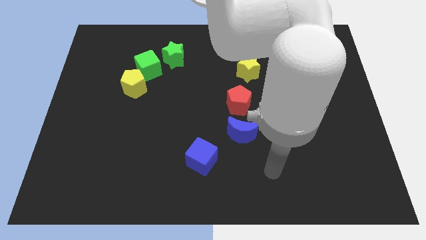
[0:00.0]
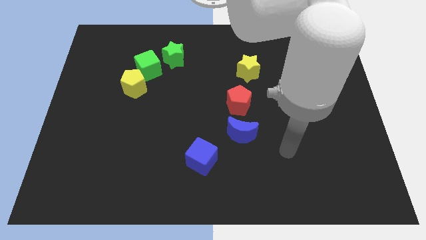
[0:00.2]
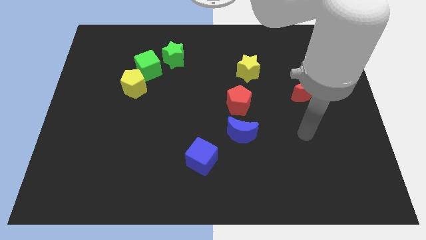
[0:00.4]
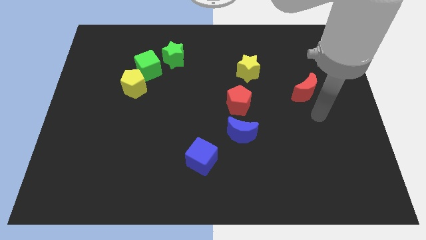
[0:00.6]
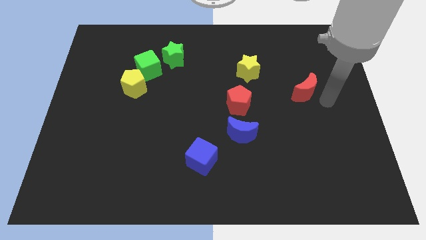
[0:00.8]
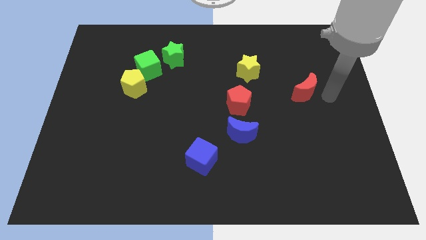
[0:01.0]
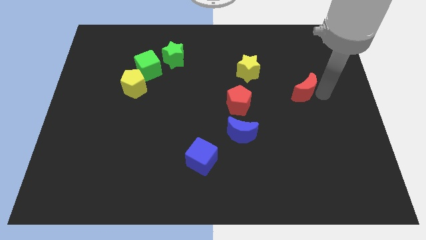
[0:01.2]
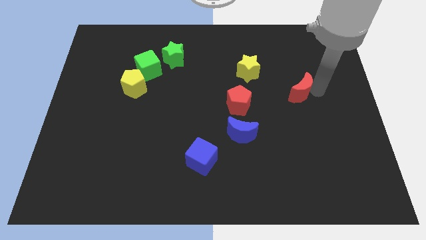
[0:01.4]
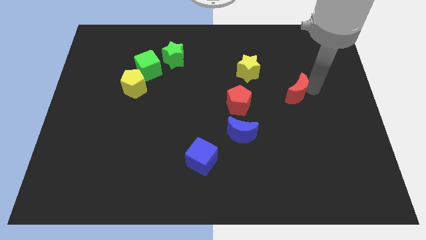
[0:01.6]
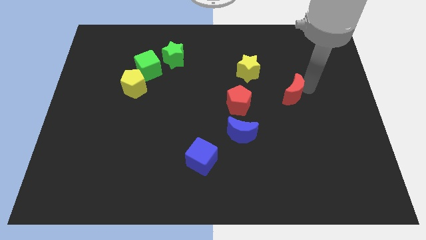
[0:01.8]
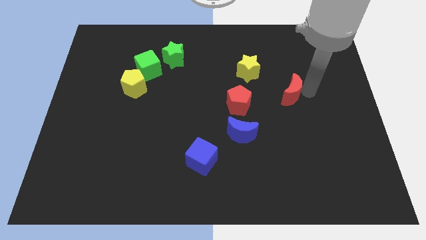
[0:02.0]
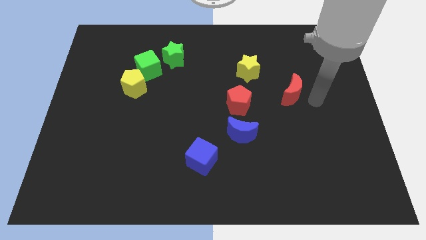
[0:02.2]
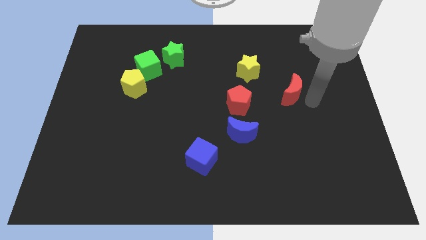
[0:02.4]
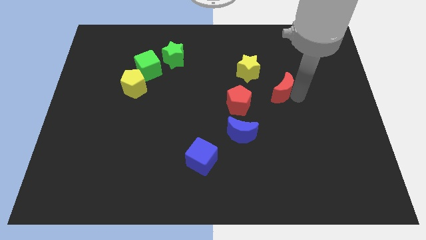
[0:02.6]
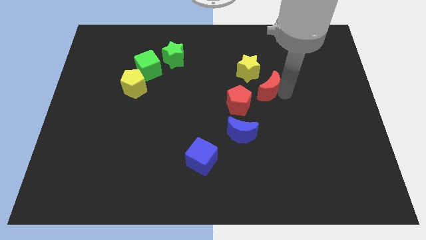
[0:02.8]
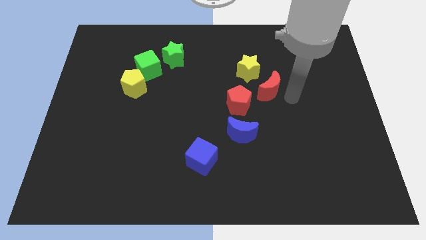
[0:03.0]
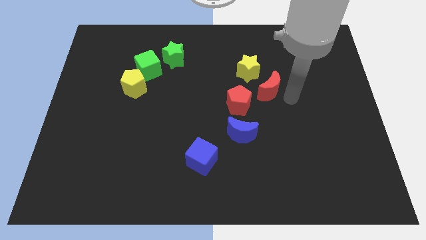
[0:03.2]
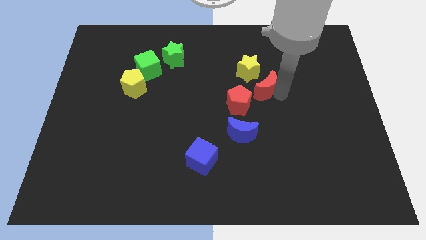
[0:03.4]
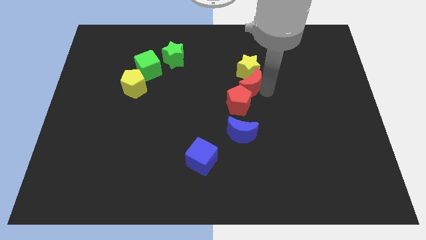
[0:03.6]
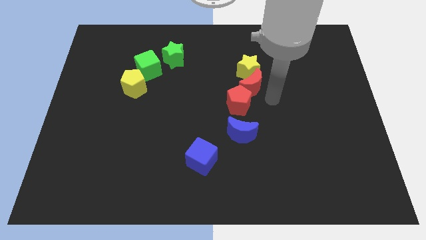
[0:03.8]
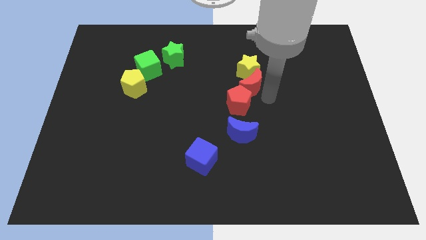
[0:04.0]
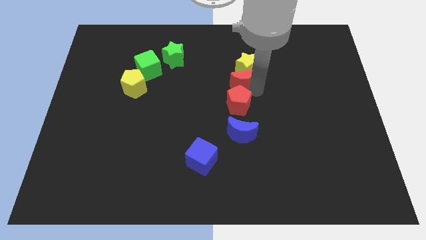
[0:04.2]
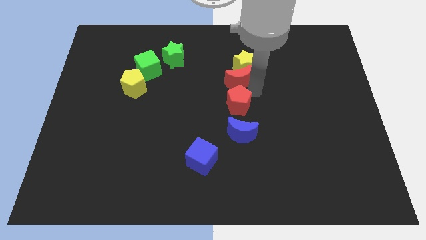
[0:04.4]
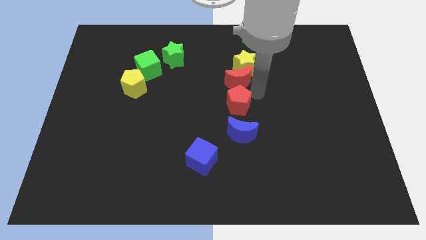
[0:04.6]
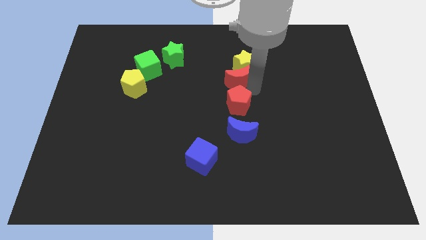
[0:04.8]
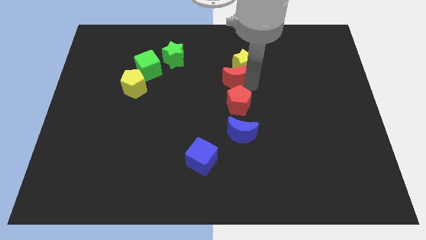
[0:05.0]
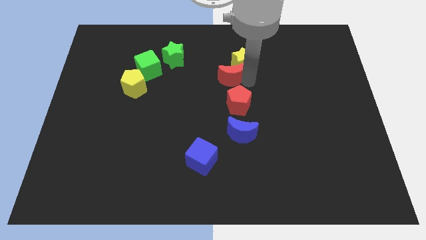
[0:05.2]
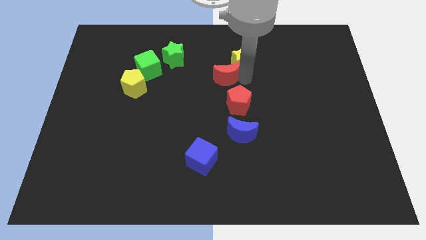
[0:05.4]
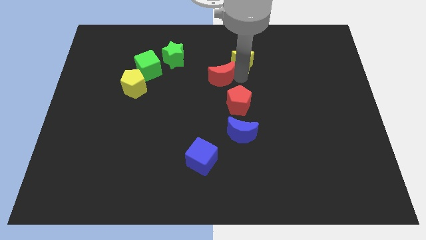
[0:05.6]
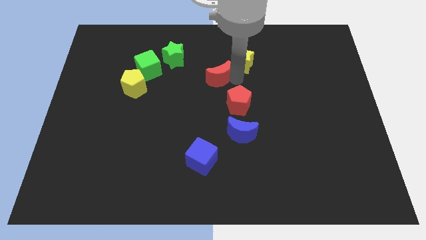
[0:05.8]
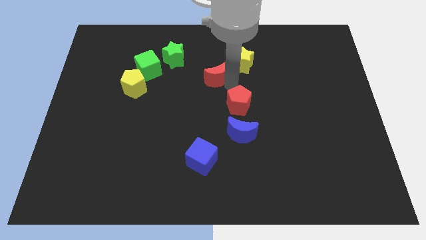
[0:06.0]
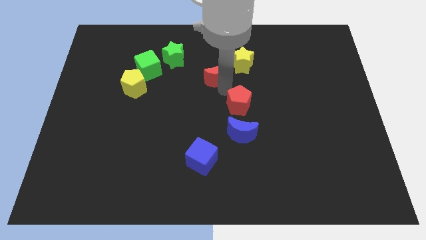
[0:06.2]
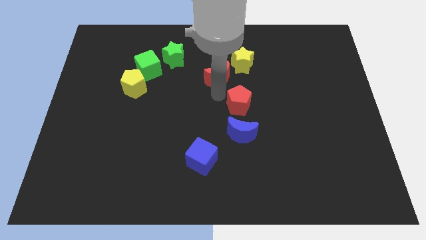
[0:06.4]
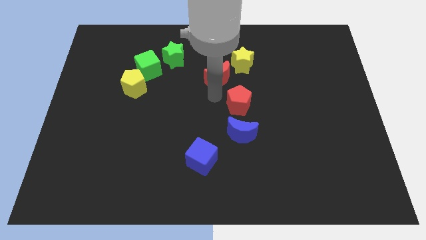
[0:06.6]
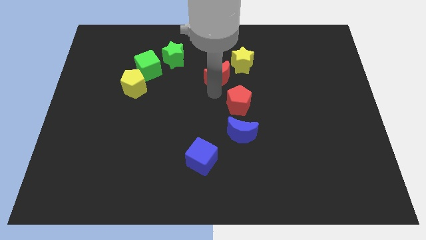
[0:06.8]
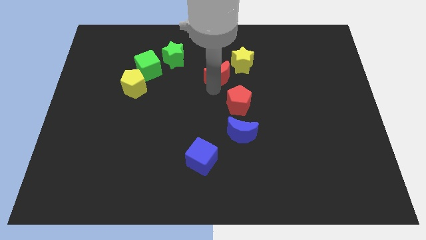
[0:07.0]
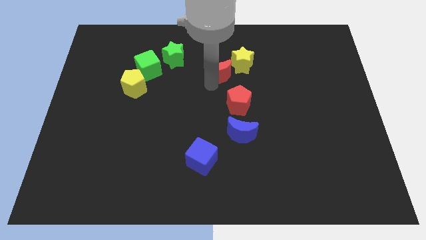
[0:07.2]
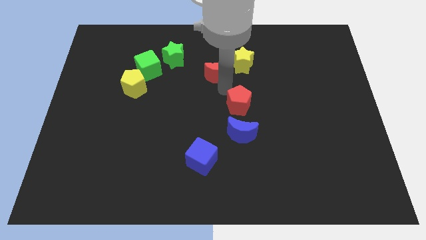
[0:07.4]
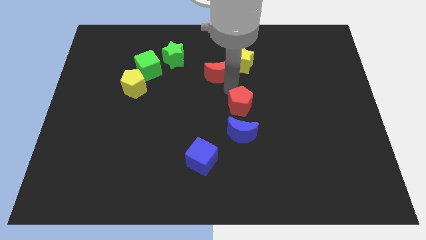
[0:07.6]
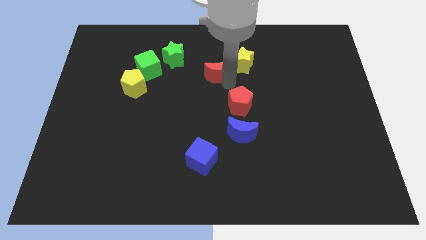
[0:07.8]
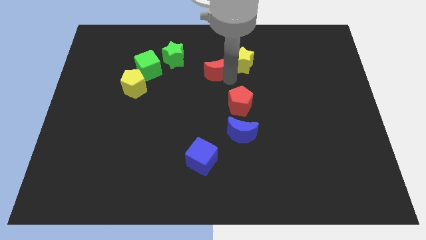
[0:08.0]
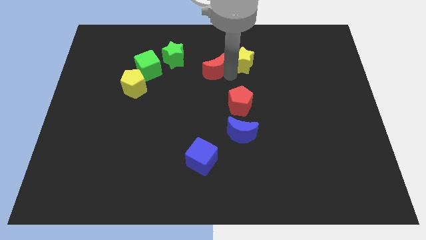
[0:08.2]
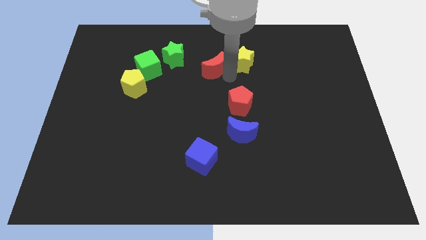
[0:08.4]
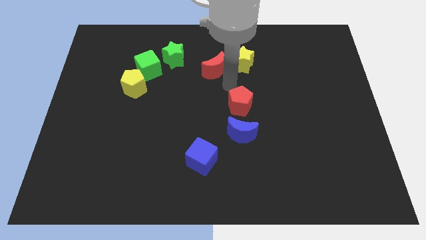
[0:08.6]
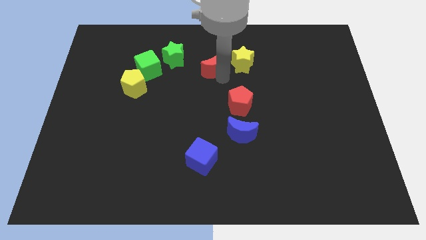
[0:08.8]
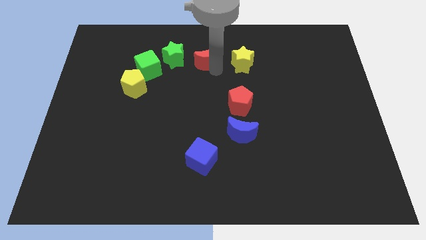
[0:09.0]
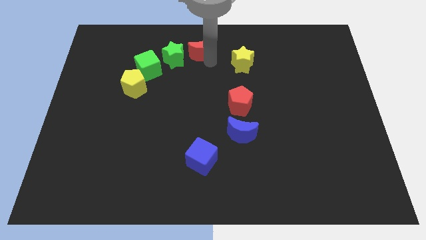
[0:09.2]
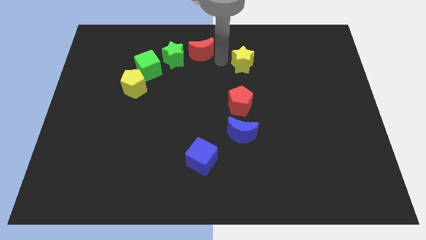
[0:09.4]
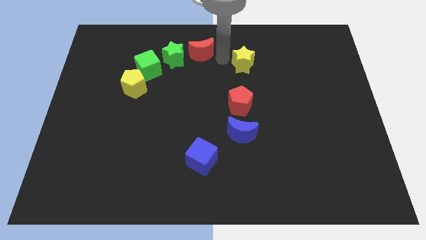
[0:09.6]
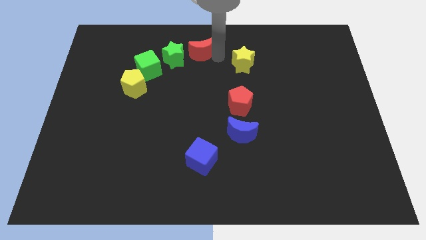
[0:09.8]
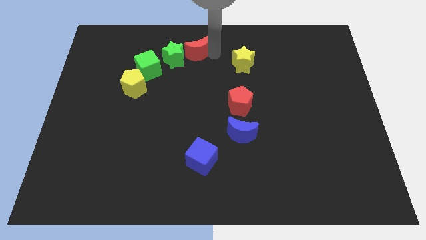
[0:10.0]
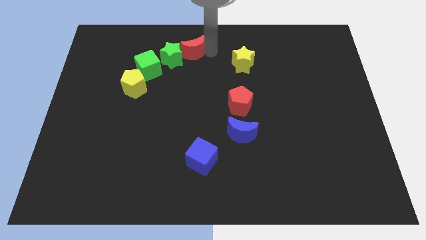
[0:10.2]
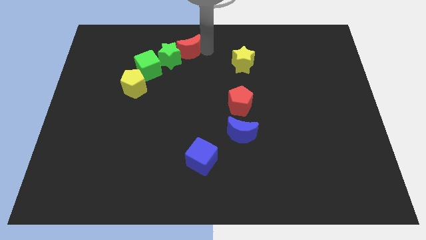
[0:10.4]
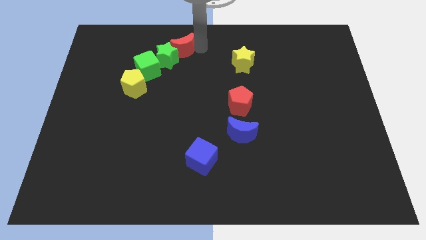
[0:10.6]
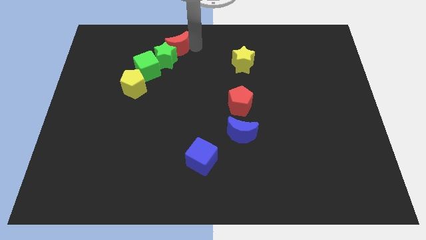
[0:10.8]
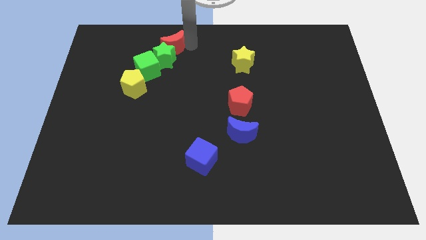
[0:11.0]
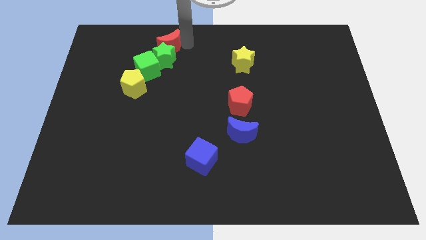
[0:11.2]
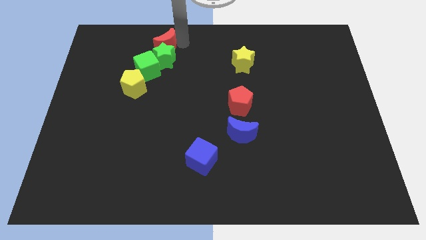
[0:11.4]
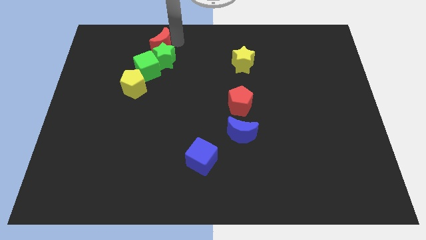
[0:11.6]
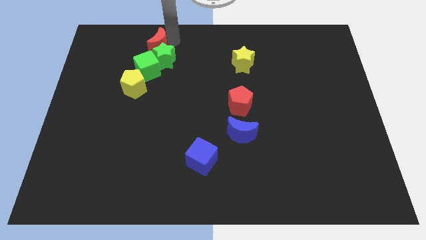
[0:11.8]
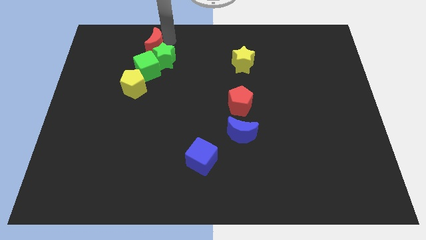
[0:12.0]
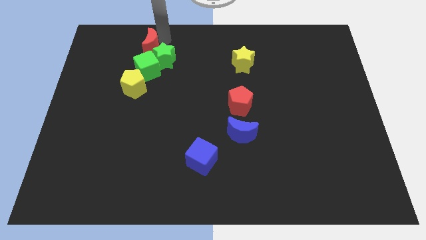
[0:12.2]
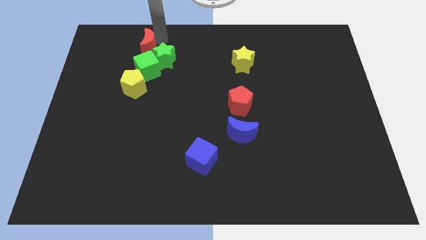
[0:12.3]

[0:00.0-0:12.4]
move the red moon to the left of the green star

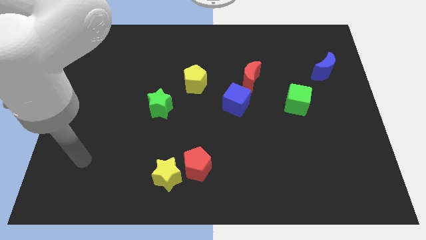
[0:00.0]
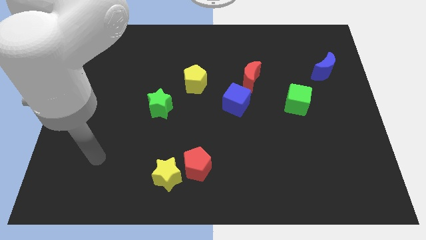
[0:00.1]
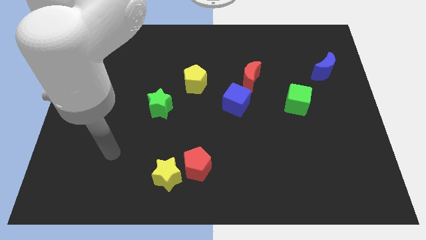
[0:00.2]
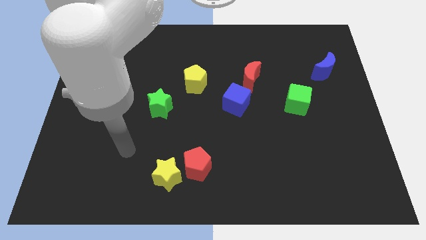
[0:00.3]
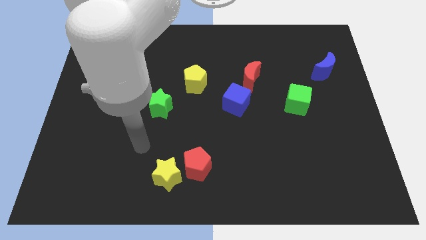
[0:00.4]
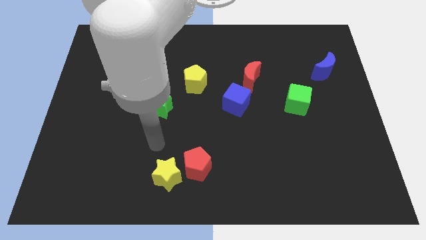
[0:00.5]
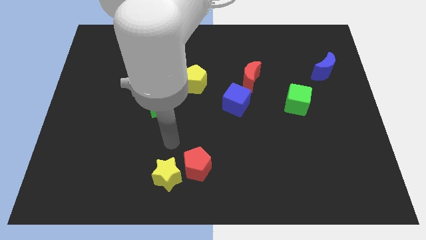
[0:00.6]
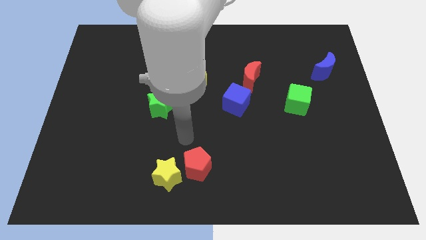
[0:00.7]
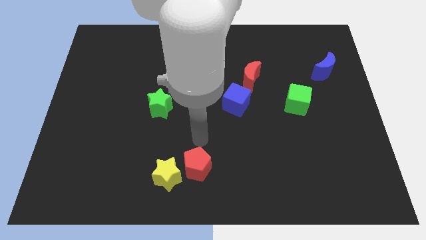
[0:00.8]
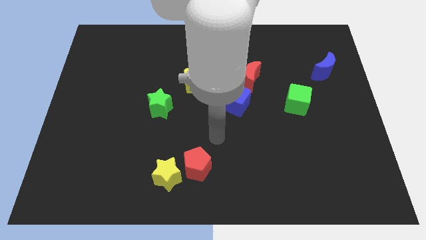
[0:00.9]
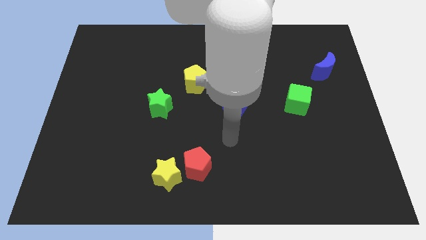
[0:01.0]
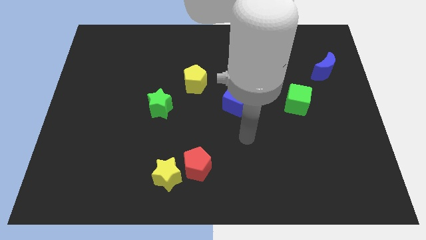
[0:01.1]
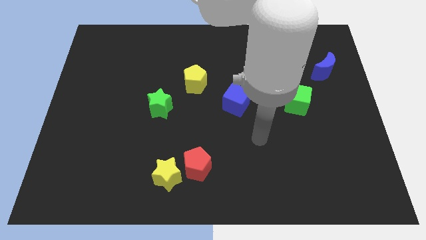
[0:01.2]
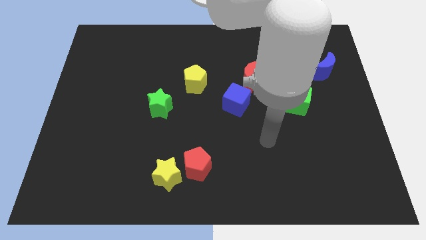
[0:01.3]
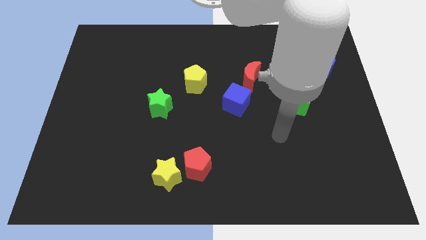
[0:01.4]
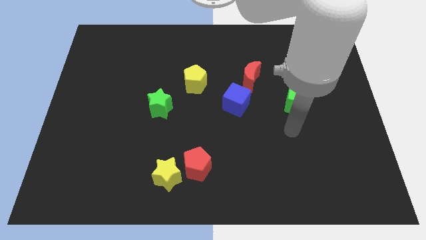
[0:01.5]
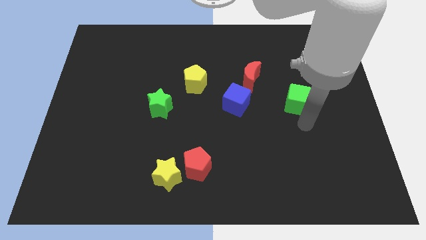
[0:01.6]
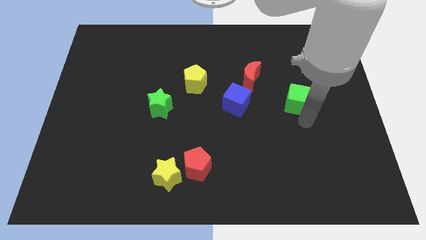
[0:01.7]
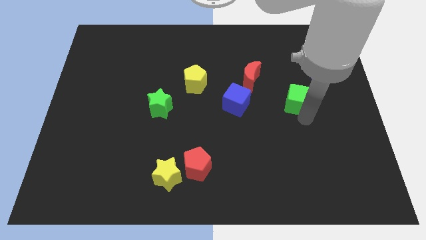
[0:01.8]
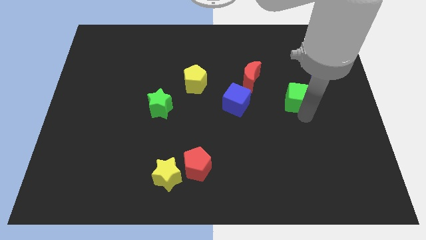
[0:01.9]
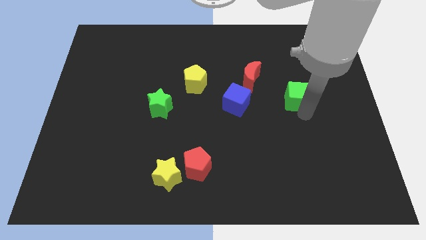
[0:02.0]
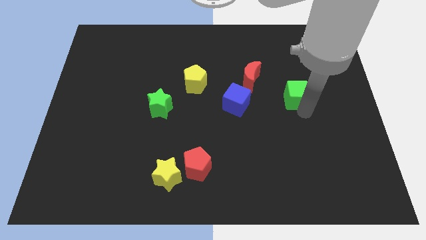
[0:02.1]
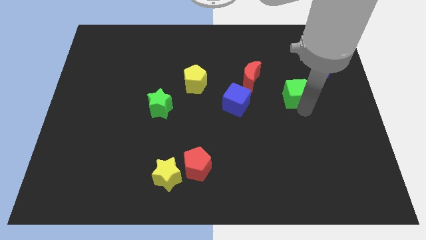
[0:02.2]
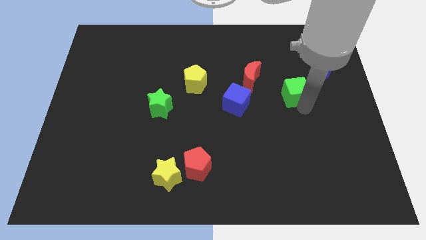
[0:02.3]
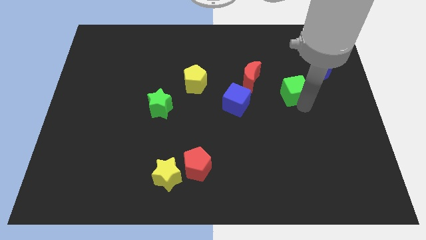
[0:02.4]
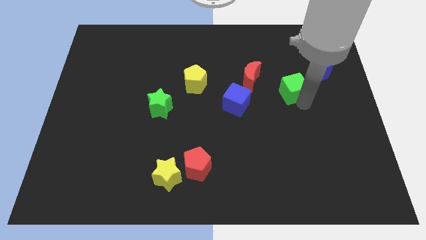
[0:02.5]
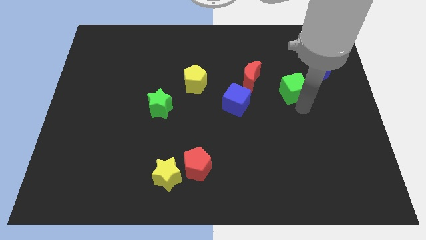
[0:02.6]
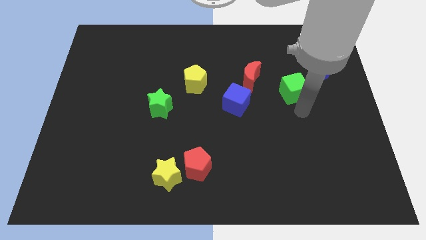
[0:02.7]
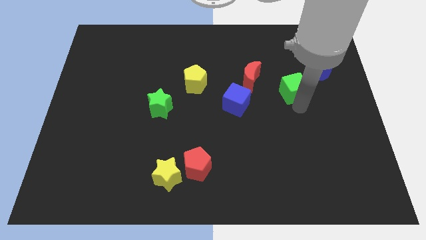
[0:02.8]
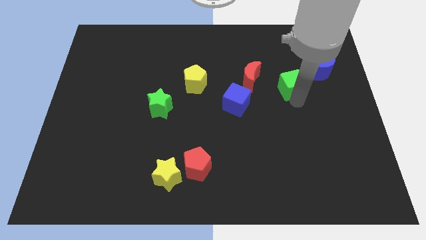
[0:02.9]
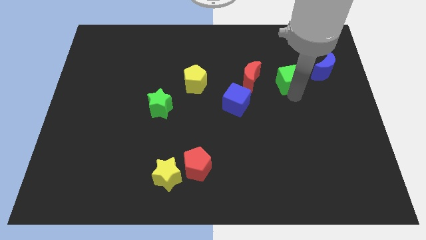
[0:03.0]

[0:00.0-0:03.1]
put the green cube just left of the blue moon
